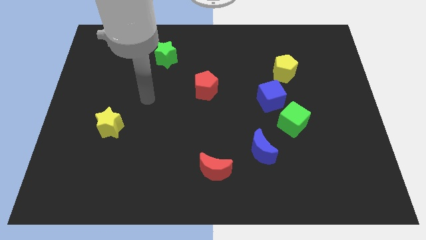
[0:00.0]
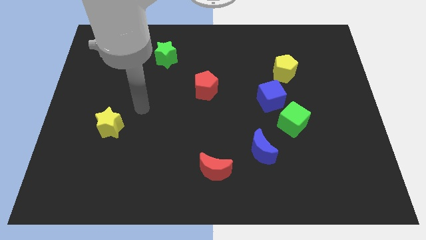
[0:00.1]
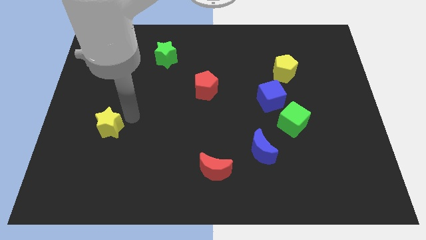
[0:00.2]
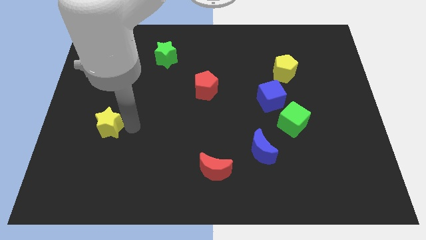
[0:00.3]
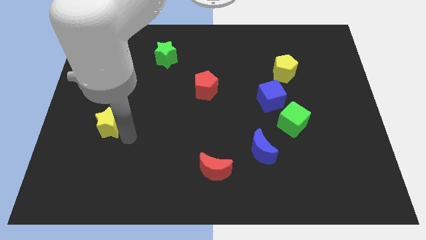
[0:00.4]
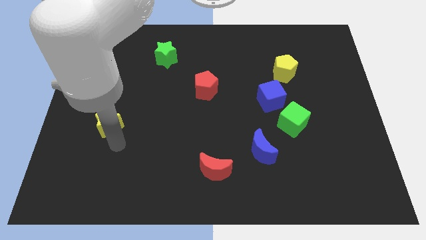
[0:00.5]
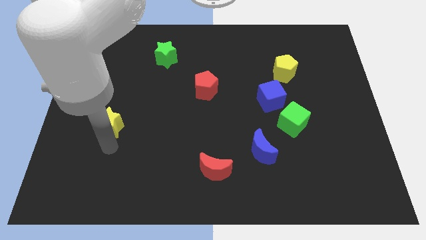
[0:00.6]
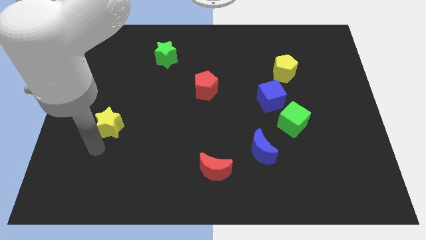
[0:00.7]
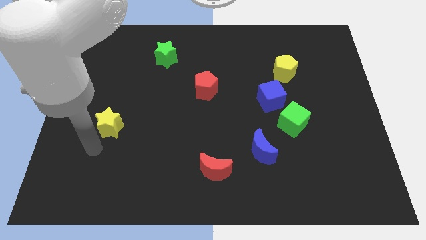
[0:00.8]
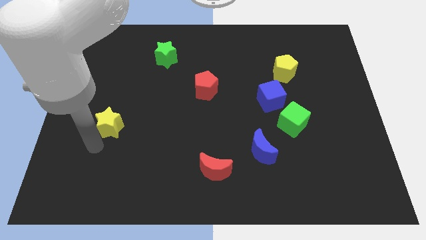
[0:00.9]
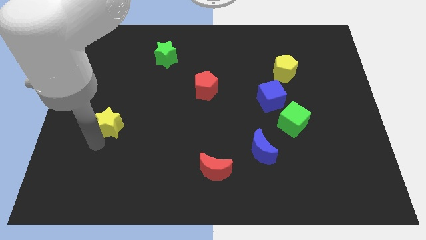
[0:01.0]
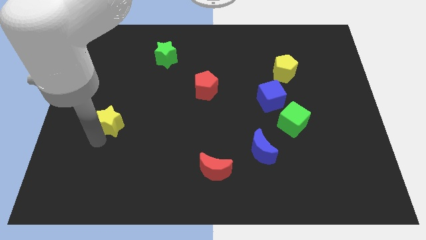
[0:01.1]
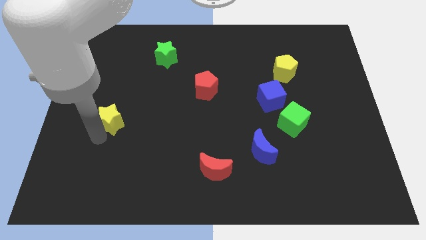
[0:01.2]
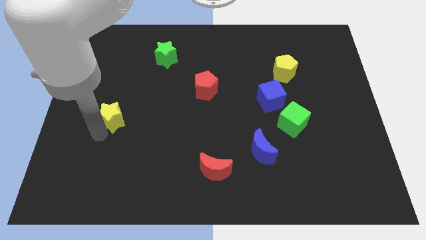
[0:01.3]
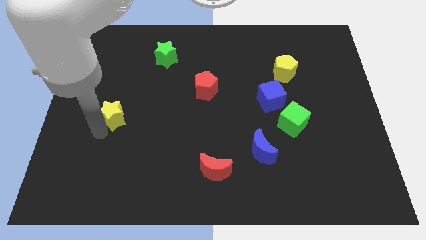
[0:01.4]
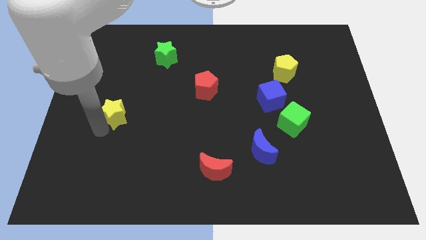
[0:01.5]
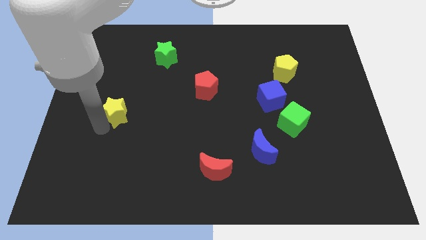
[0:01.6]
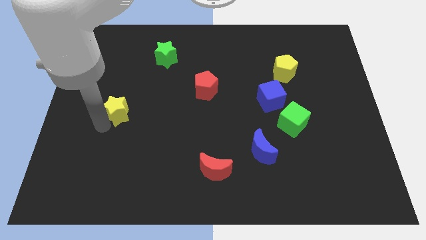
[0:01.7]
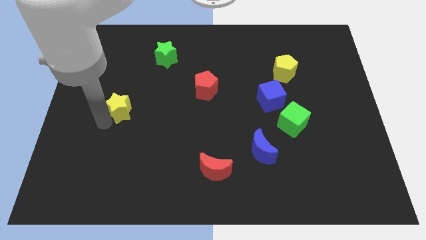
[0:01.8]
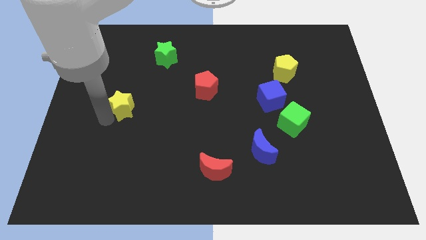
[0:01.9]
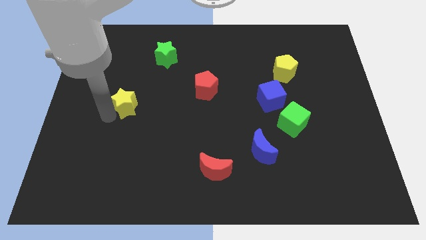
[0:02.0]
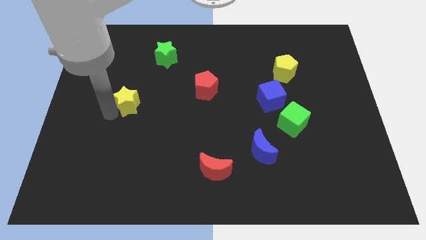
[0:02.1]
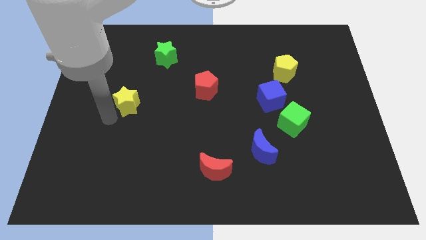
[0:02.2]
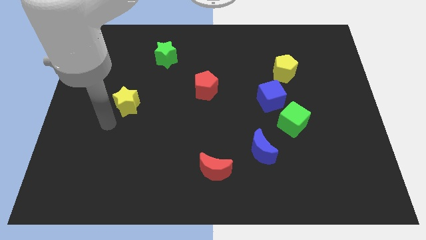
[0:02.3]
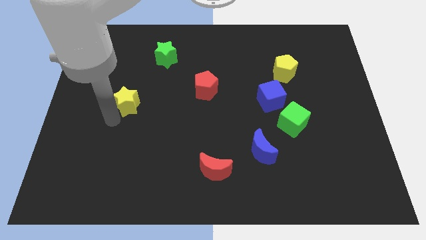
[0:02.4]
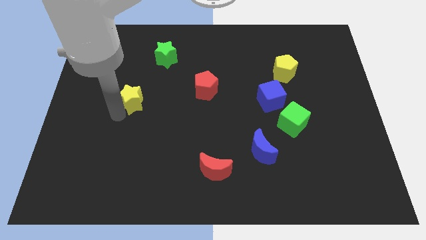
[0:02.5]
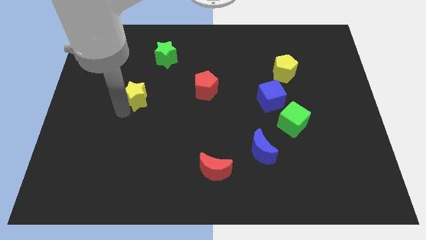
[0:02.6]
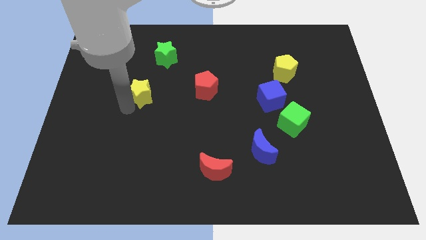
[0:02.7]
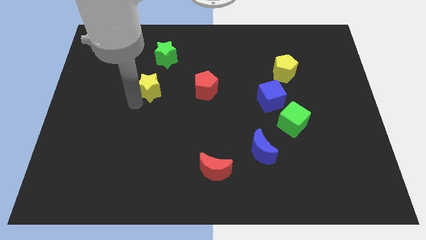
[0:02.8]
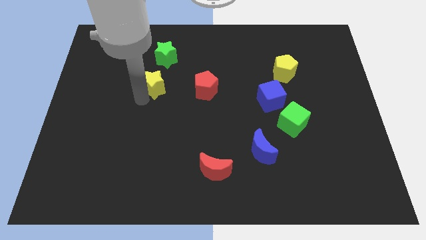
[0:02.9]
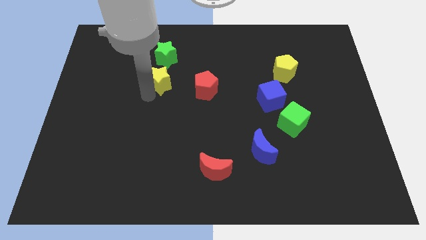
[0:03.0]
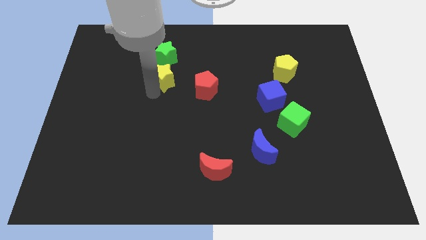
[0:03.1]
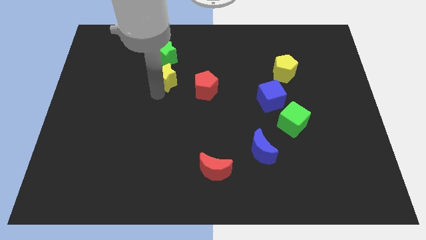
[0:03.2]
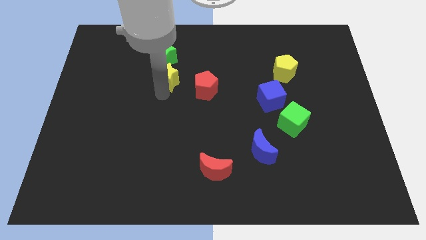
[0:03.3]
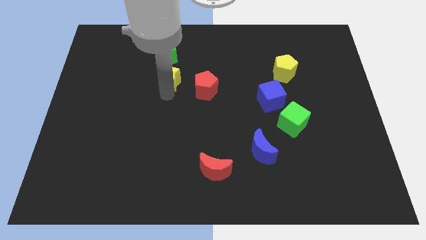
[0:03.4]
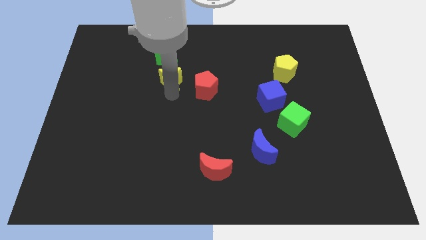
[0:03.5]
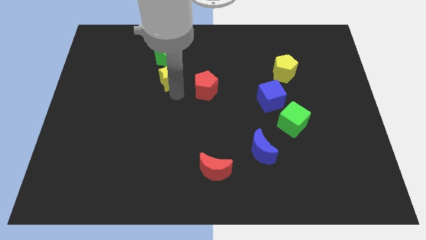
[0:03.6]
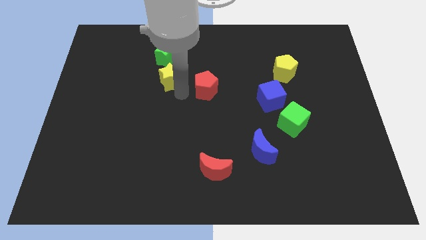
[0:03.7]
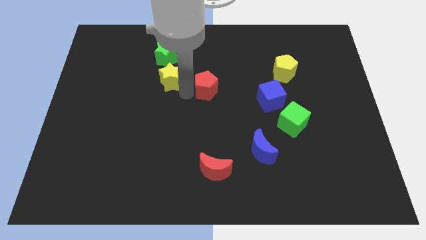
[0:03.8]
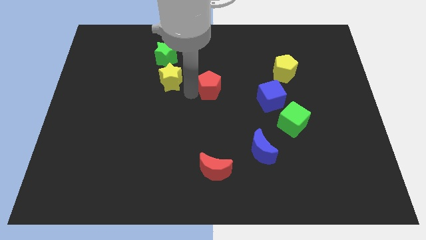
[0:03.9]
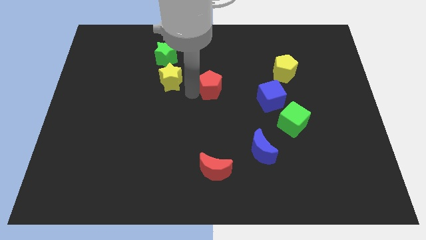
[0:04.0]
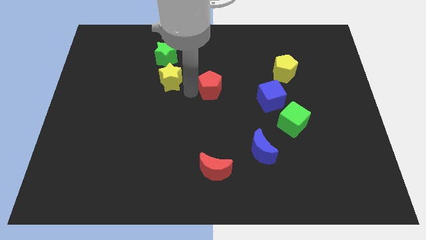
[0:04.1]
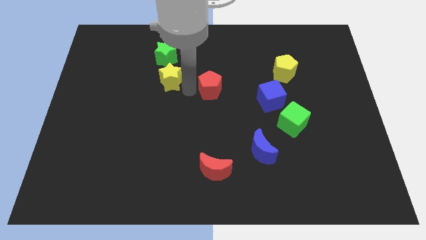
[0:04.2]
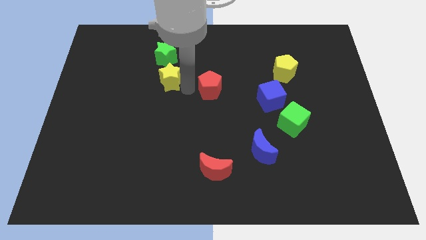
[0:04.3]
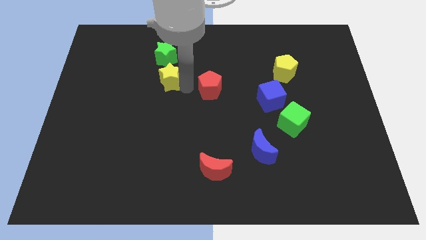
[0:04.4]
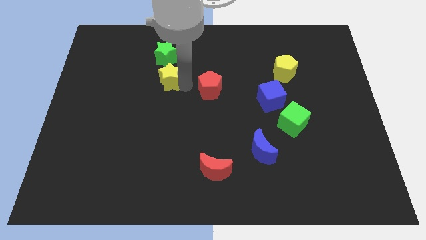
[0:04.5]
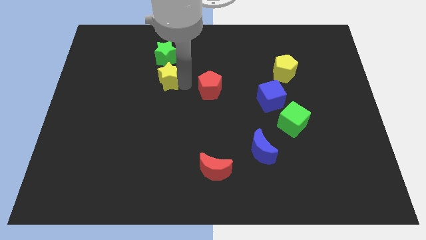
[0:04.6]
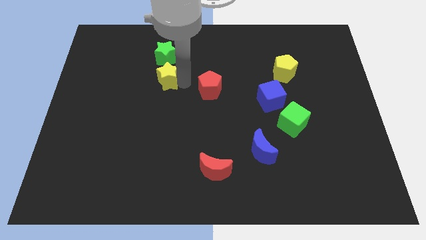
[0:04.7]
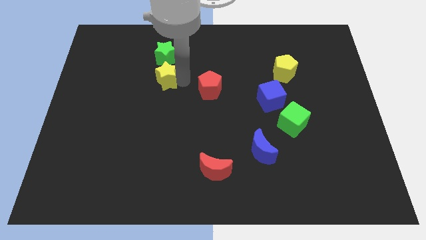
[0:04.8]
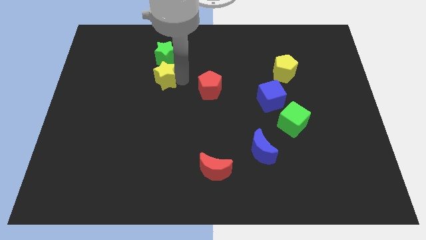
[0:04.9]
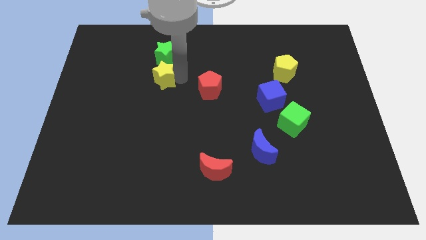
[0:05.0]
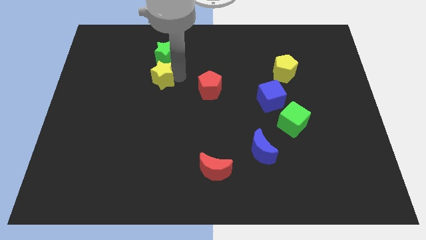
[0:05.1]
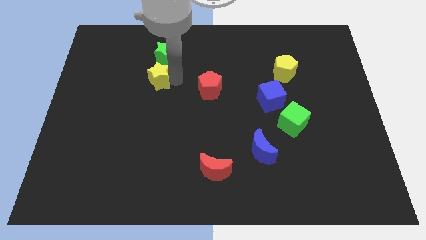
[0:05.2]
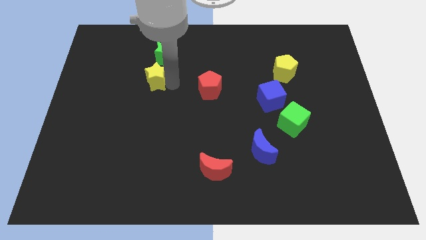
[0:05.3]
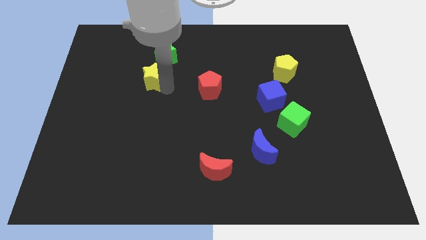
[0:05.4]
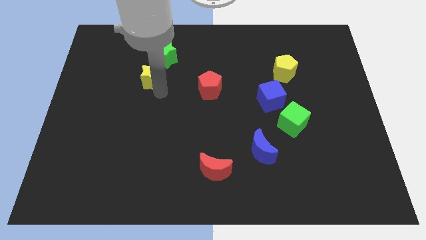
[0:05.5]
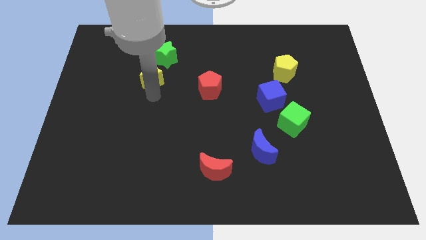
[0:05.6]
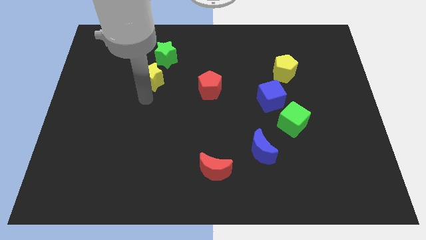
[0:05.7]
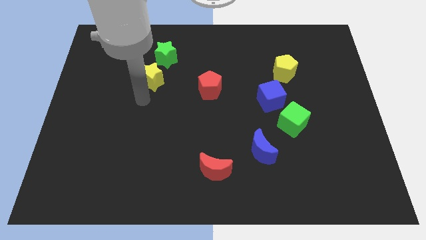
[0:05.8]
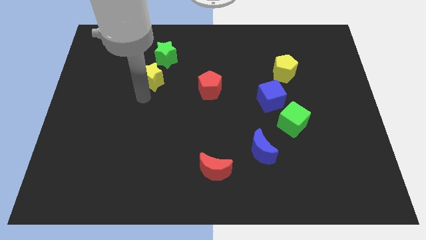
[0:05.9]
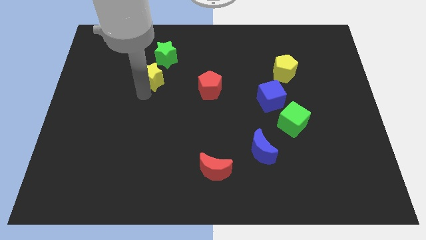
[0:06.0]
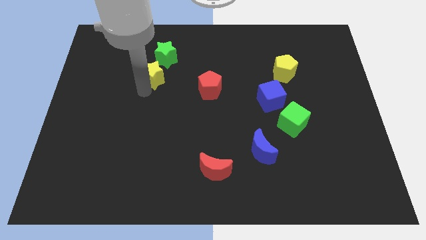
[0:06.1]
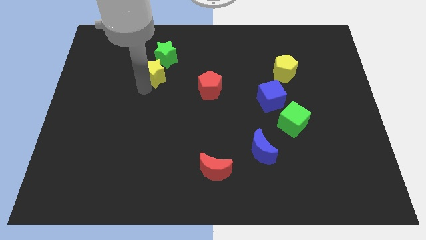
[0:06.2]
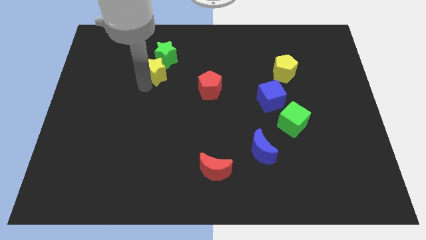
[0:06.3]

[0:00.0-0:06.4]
move the yellow star towards the green star

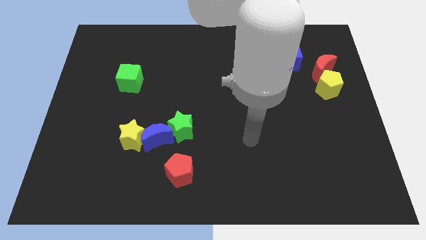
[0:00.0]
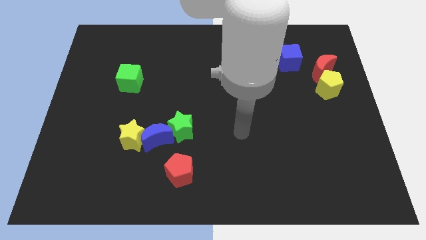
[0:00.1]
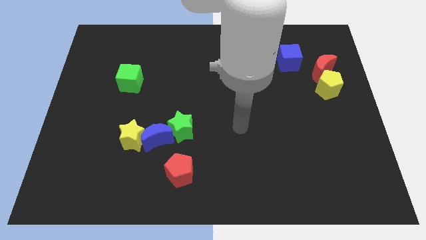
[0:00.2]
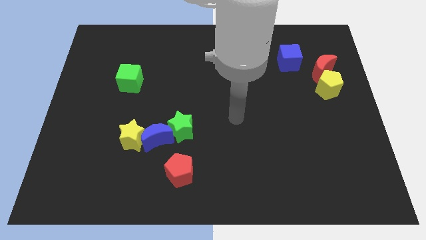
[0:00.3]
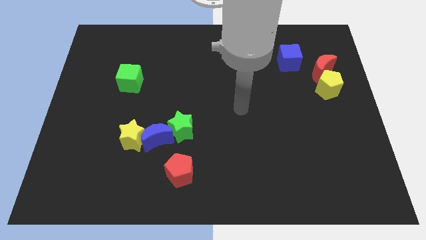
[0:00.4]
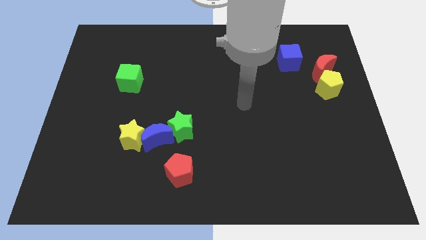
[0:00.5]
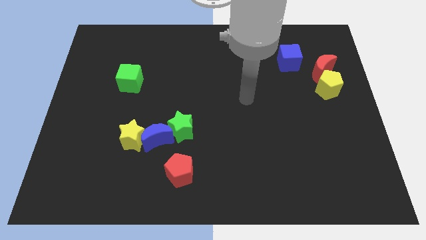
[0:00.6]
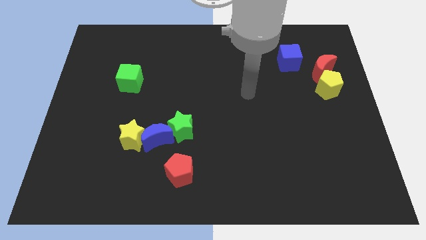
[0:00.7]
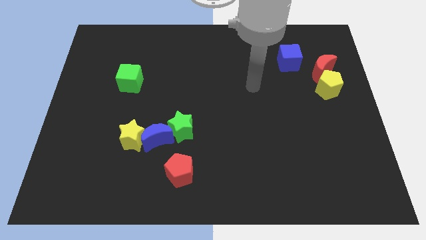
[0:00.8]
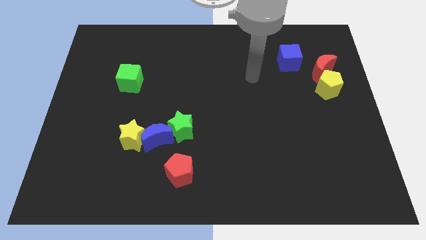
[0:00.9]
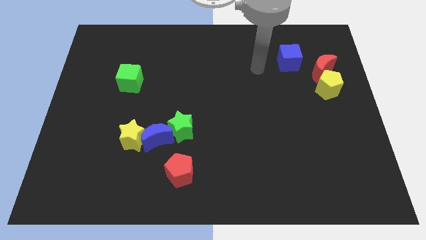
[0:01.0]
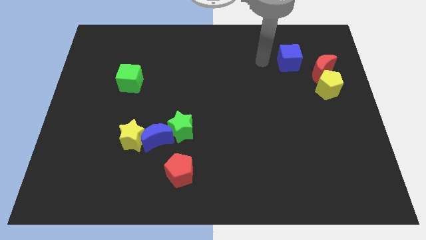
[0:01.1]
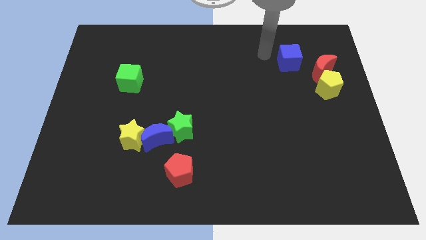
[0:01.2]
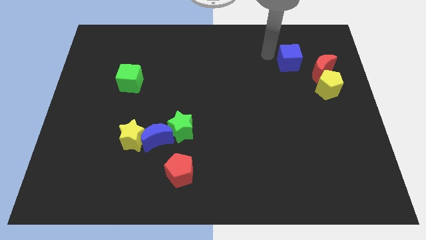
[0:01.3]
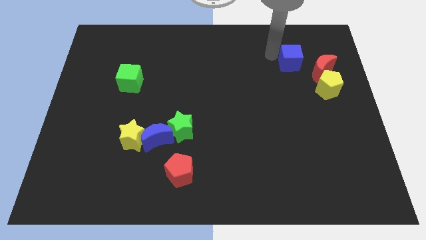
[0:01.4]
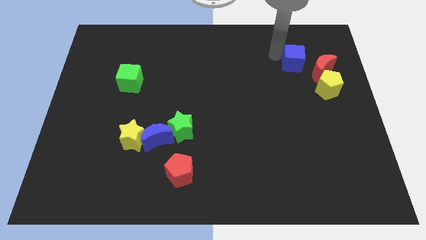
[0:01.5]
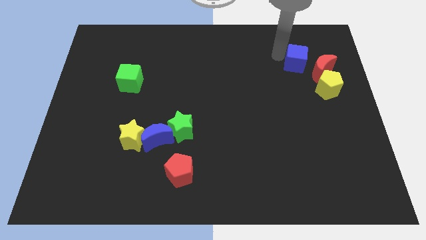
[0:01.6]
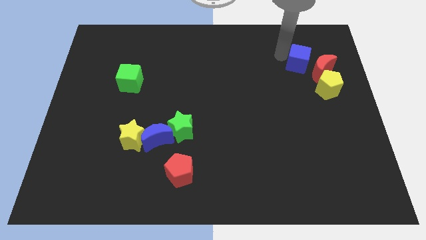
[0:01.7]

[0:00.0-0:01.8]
put the blue cube towards the red moon

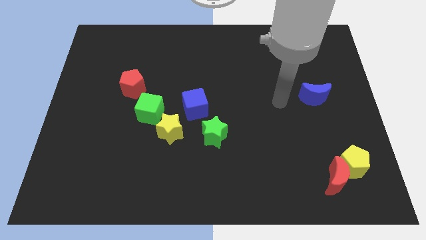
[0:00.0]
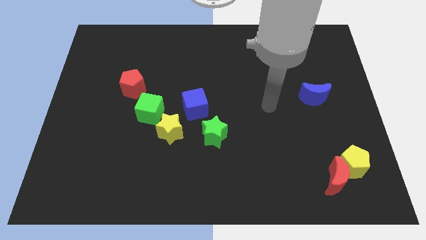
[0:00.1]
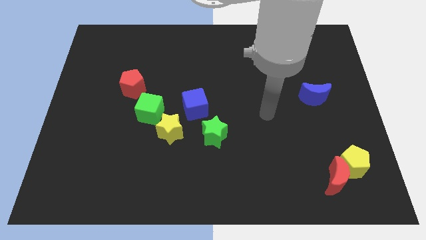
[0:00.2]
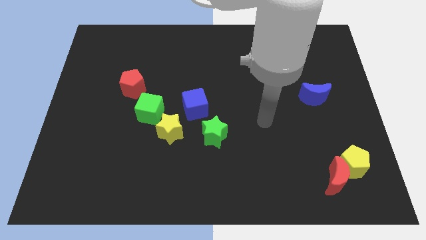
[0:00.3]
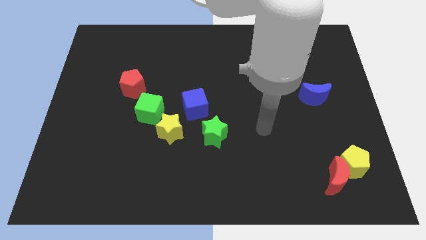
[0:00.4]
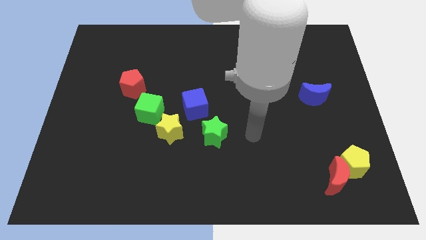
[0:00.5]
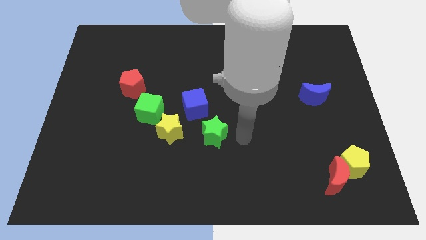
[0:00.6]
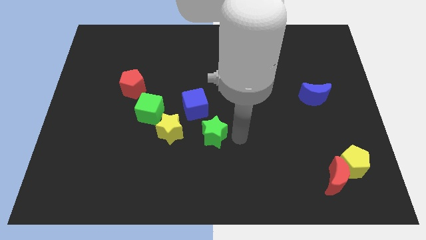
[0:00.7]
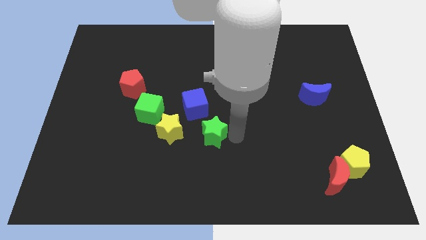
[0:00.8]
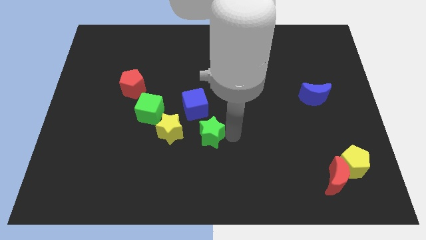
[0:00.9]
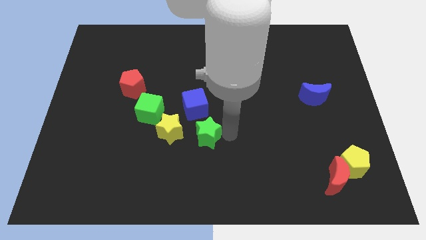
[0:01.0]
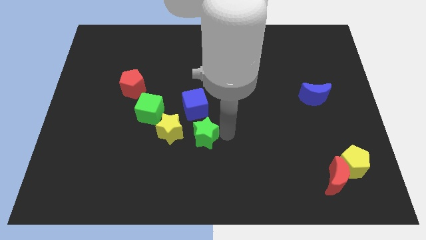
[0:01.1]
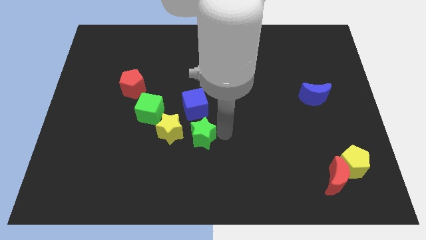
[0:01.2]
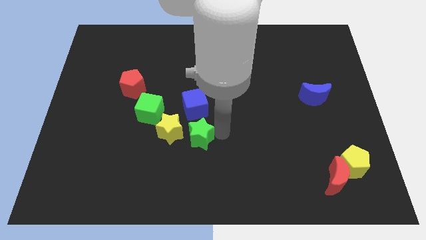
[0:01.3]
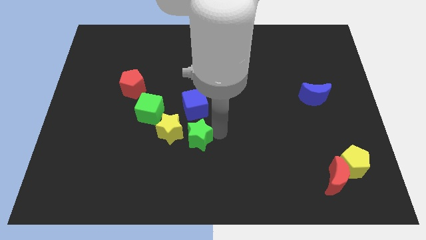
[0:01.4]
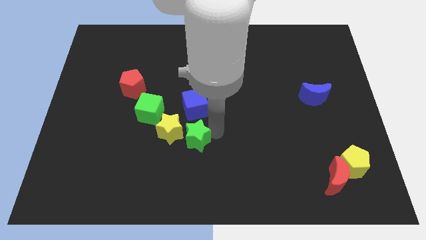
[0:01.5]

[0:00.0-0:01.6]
slide the green star next to the yellow star
